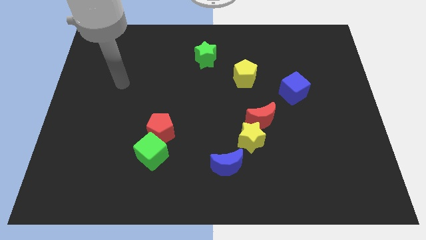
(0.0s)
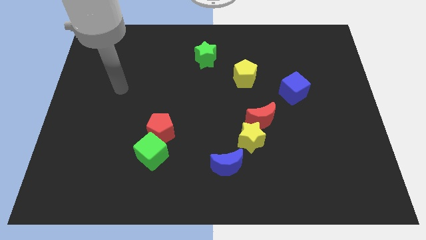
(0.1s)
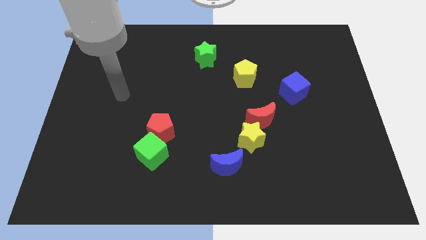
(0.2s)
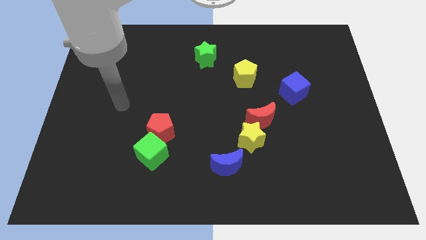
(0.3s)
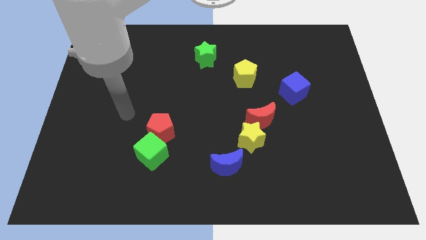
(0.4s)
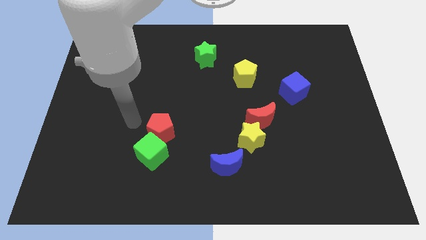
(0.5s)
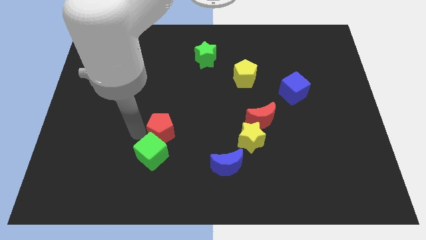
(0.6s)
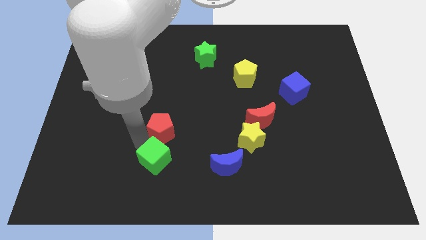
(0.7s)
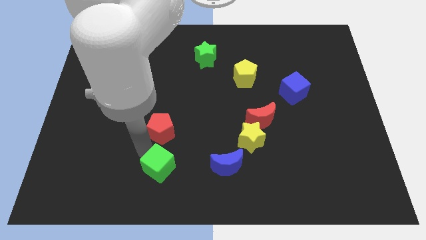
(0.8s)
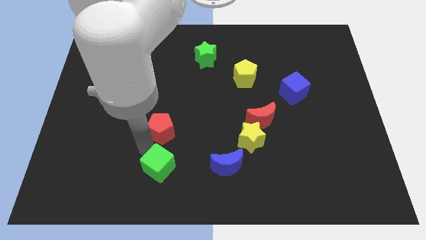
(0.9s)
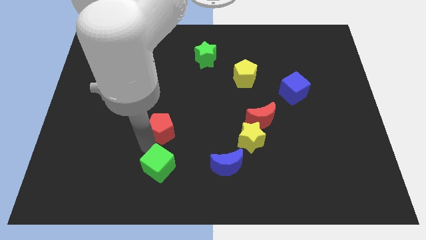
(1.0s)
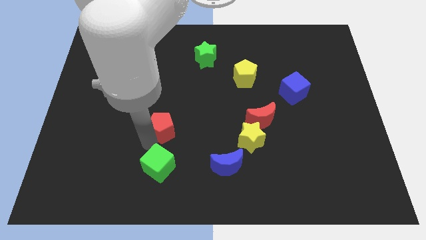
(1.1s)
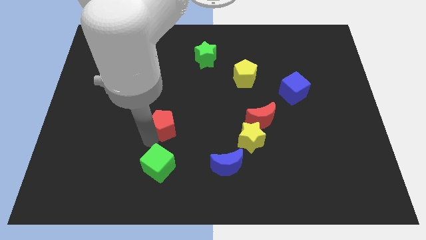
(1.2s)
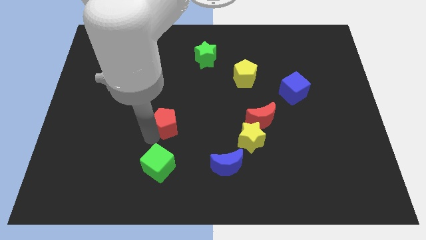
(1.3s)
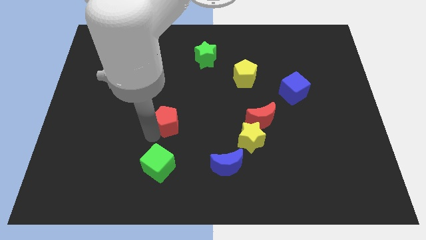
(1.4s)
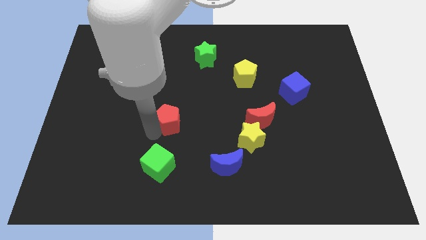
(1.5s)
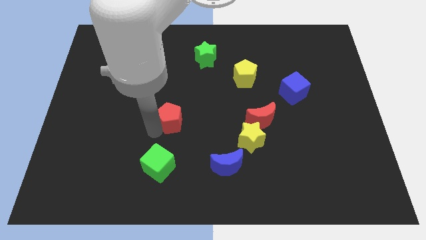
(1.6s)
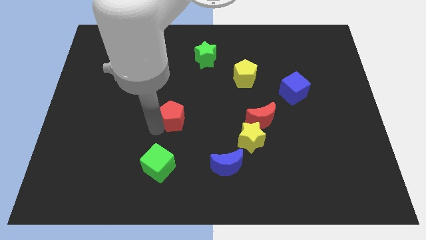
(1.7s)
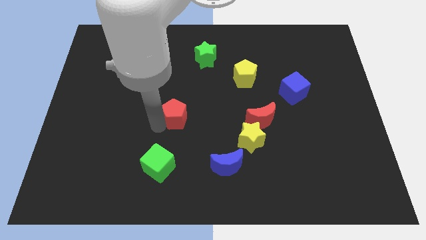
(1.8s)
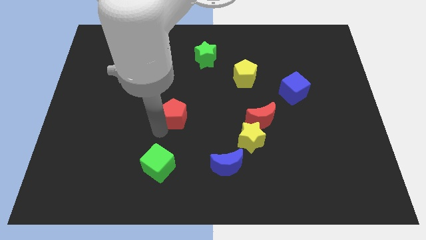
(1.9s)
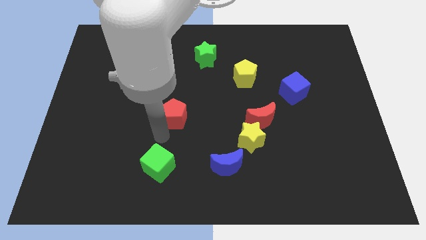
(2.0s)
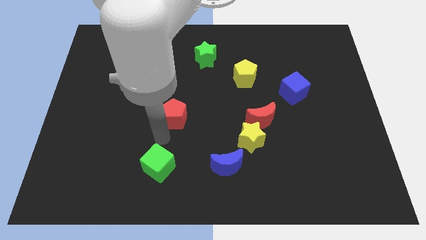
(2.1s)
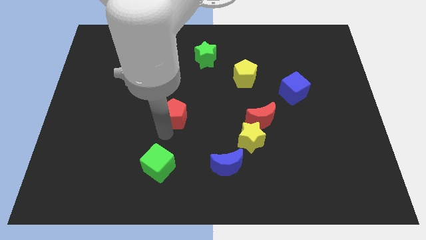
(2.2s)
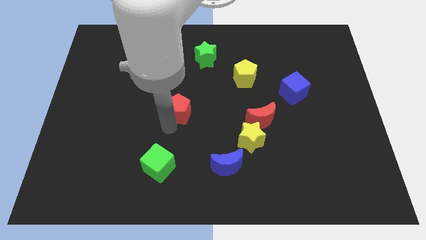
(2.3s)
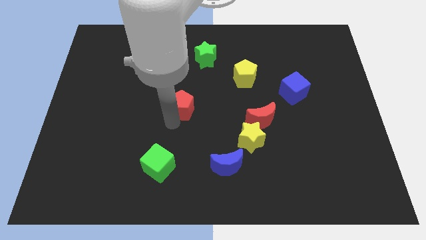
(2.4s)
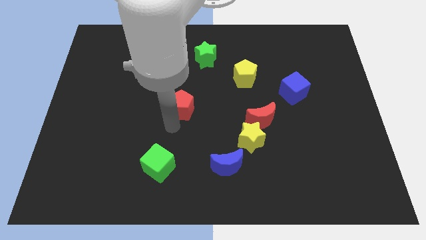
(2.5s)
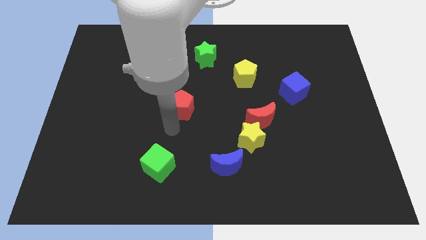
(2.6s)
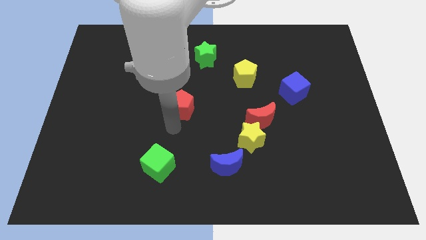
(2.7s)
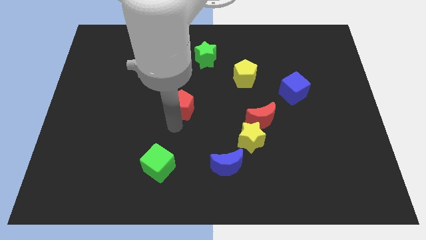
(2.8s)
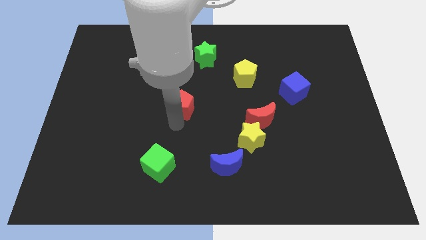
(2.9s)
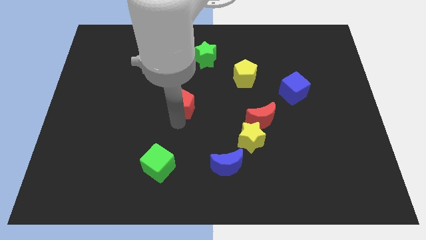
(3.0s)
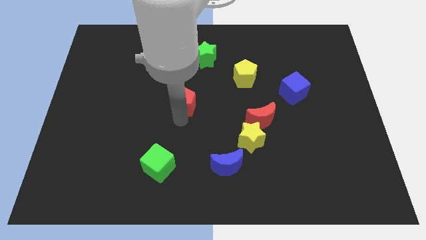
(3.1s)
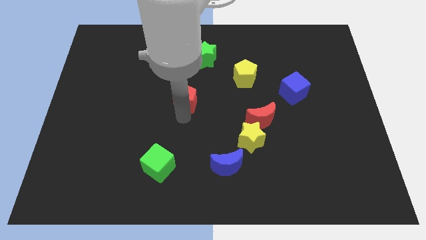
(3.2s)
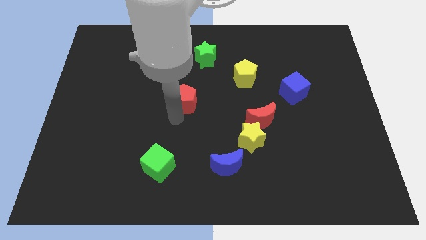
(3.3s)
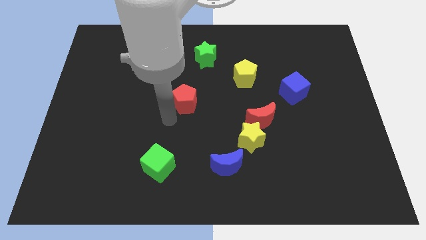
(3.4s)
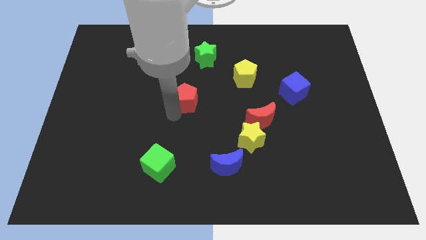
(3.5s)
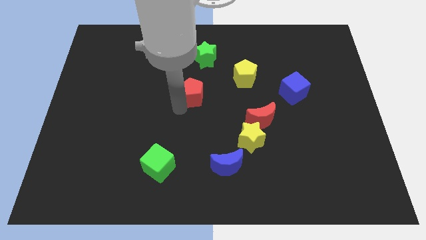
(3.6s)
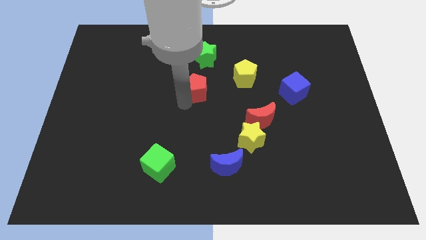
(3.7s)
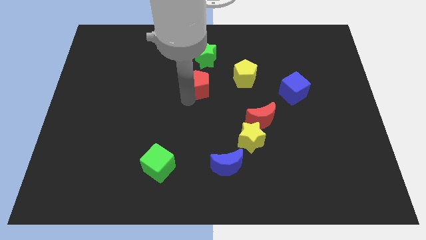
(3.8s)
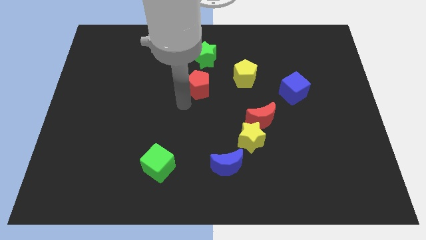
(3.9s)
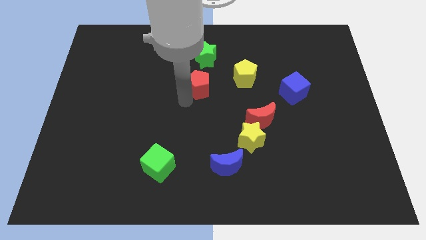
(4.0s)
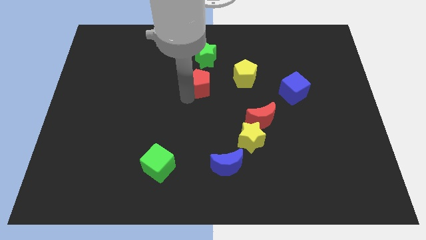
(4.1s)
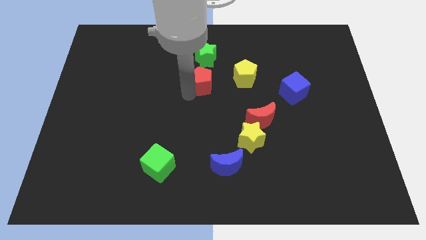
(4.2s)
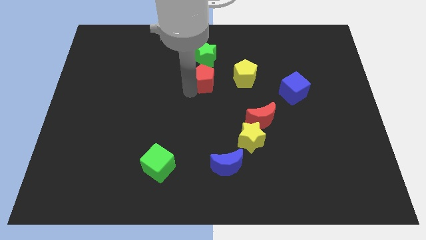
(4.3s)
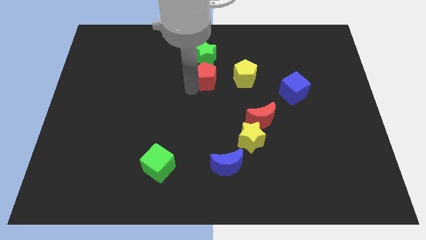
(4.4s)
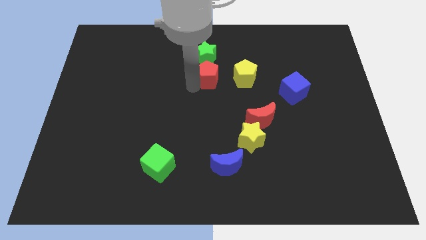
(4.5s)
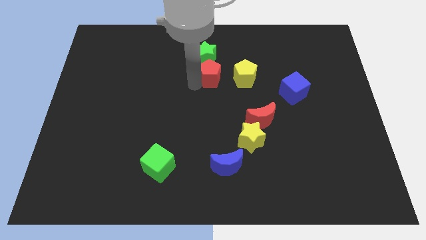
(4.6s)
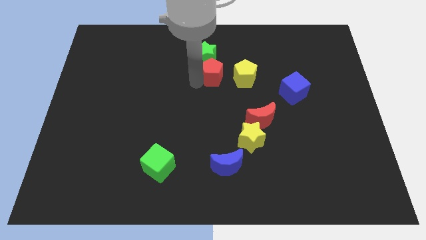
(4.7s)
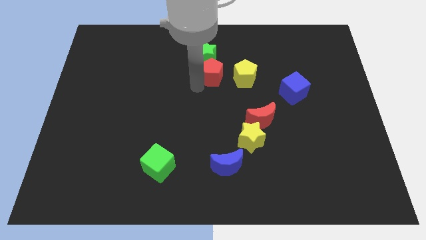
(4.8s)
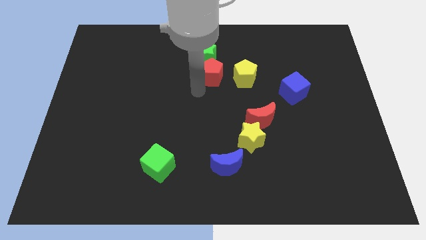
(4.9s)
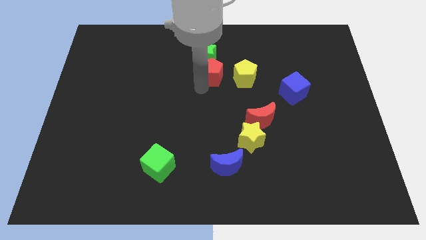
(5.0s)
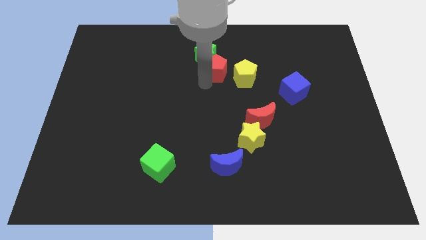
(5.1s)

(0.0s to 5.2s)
put the red pentagon to the top left side of the yellow pentagon

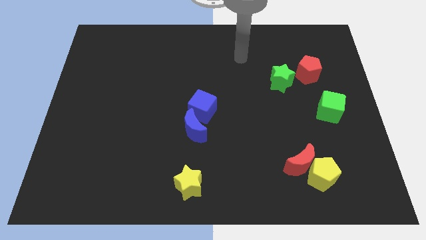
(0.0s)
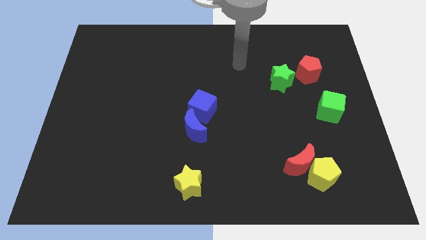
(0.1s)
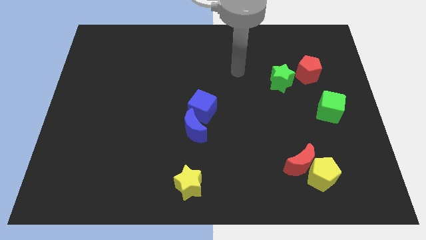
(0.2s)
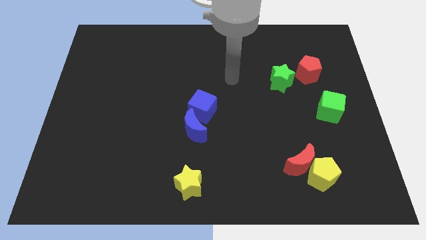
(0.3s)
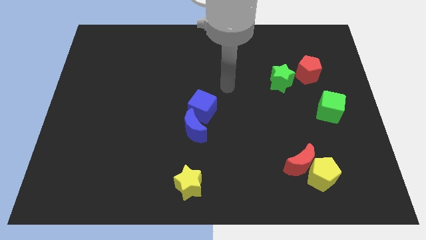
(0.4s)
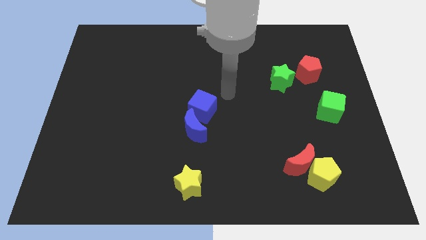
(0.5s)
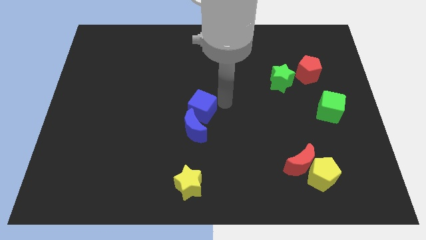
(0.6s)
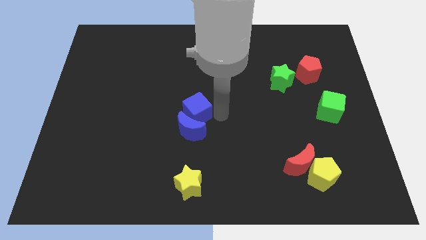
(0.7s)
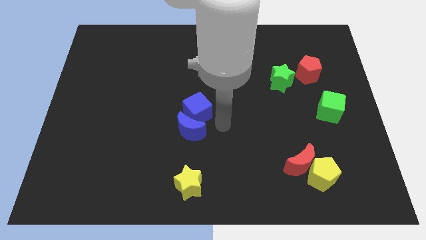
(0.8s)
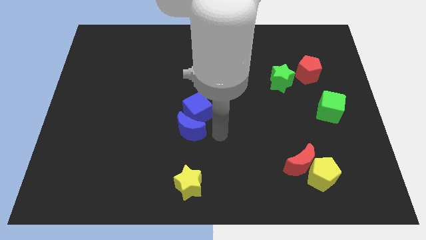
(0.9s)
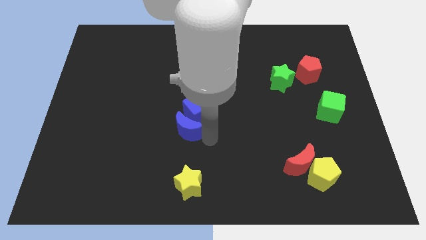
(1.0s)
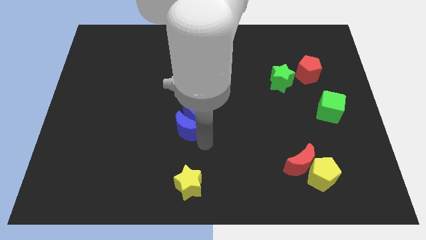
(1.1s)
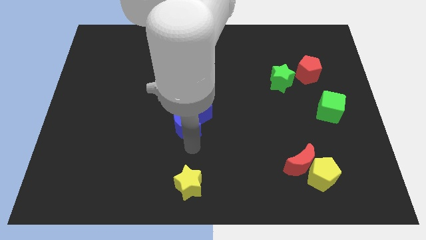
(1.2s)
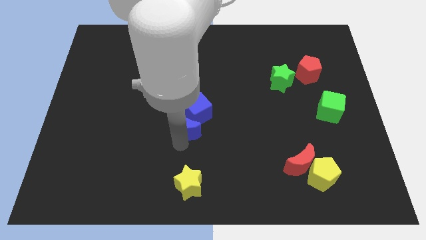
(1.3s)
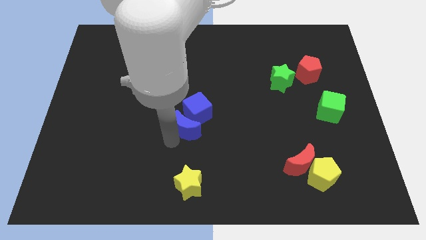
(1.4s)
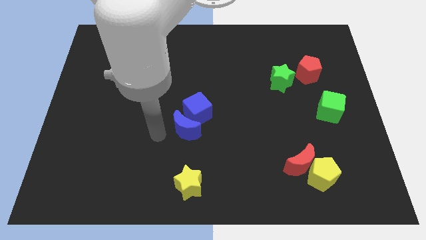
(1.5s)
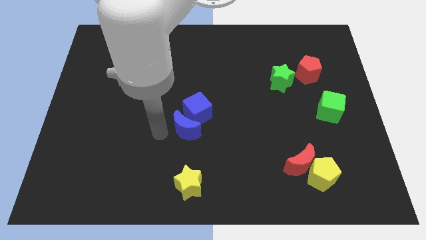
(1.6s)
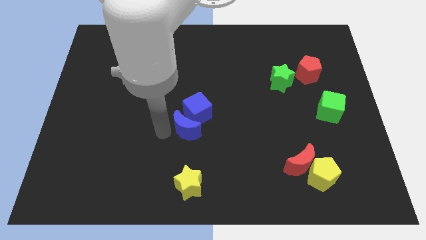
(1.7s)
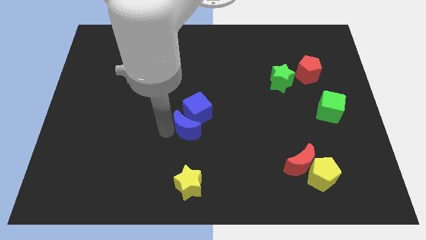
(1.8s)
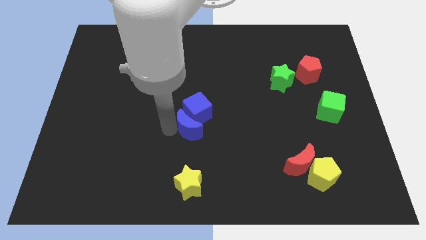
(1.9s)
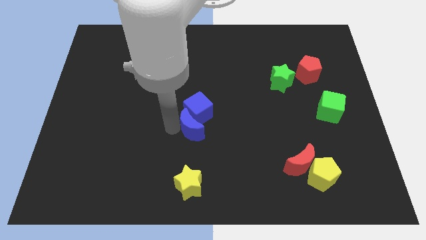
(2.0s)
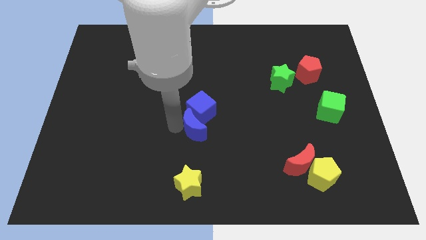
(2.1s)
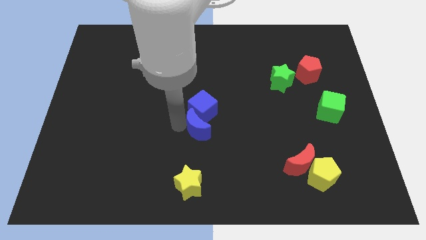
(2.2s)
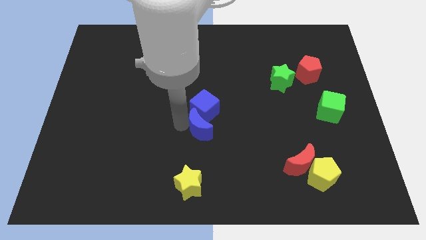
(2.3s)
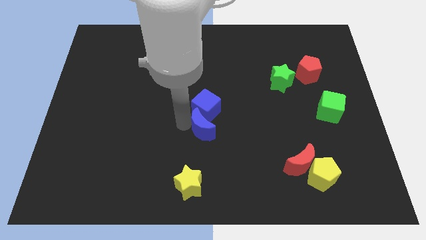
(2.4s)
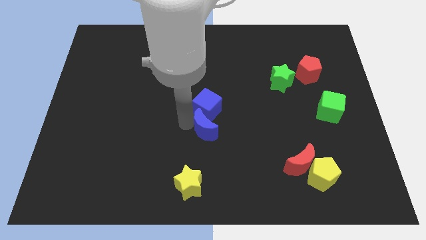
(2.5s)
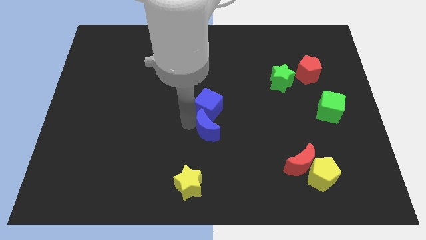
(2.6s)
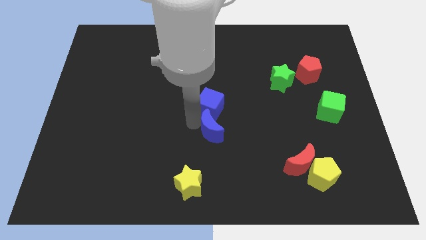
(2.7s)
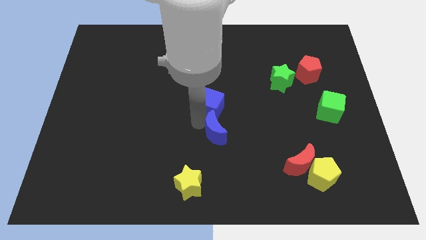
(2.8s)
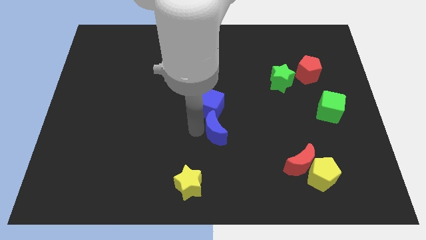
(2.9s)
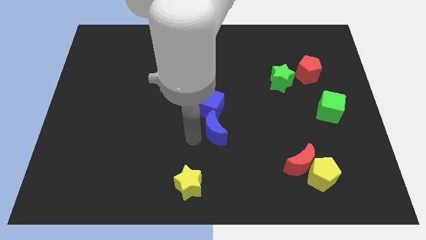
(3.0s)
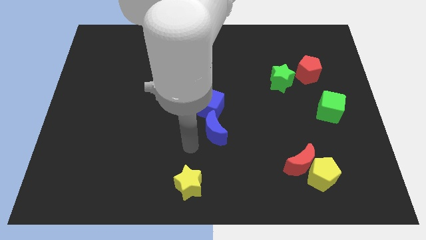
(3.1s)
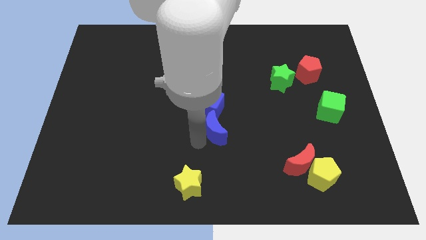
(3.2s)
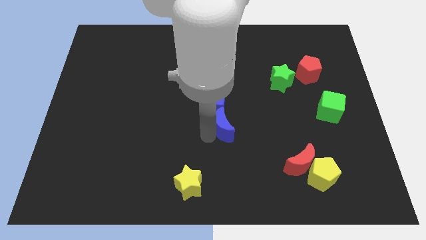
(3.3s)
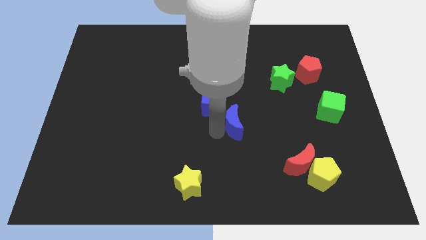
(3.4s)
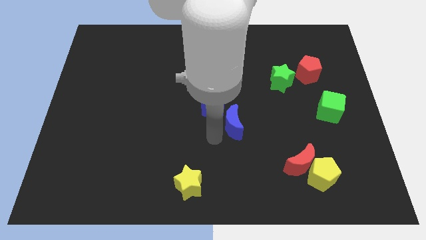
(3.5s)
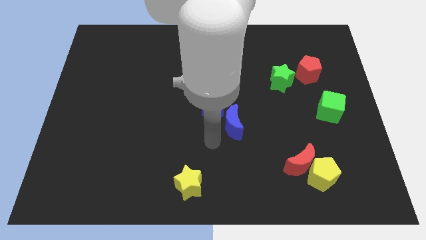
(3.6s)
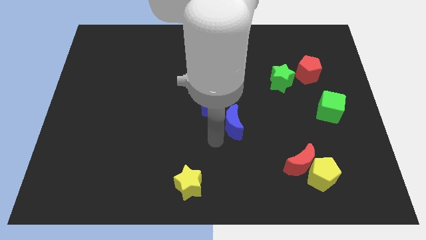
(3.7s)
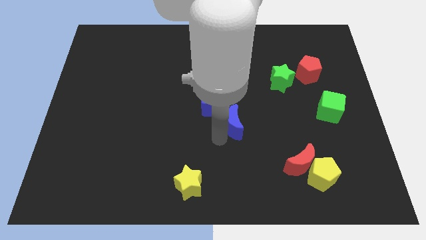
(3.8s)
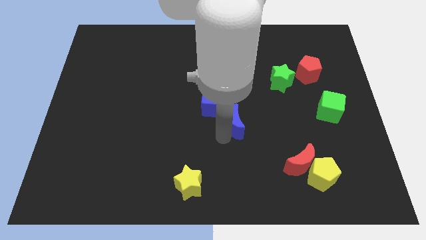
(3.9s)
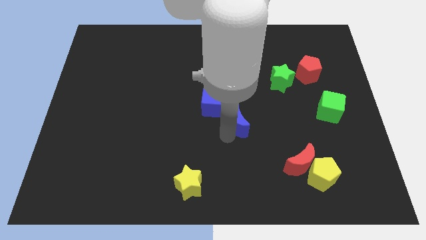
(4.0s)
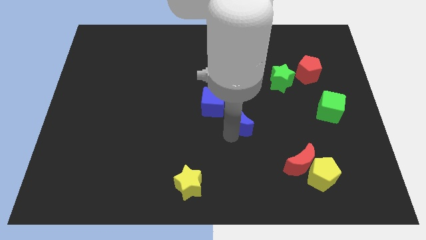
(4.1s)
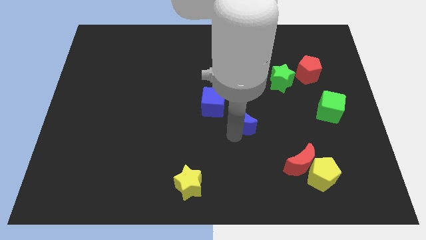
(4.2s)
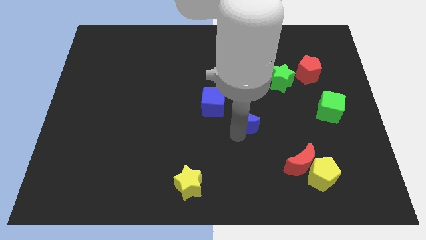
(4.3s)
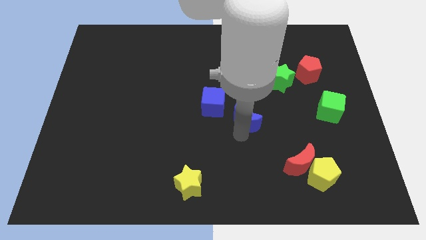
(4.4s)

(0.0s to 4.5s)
slide the blue moon just right of the blue cube
